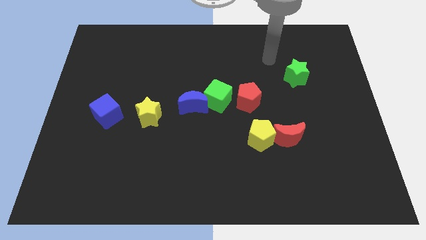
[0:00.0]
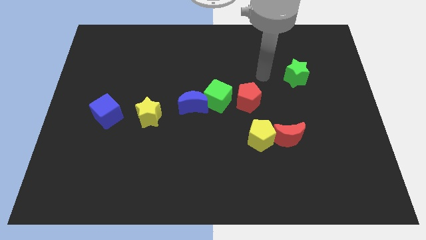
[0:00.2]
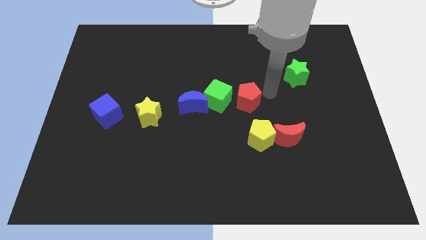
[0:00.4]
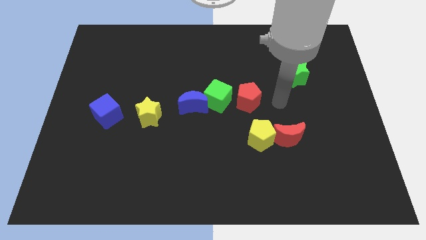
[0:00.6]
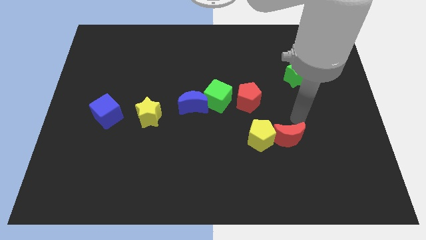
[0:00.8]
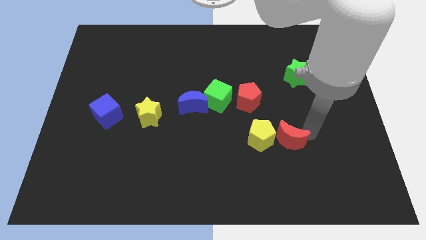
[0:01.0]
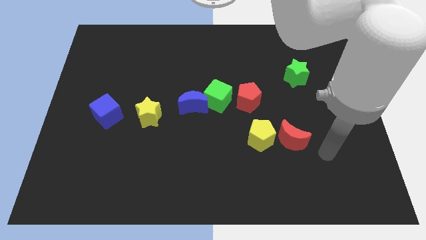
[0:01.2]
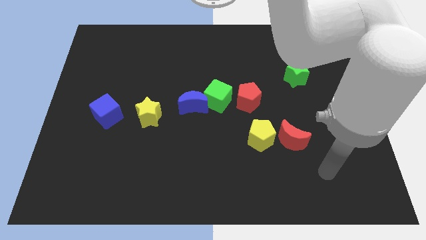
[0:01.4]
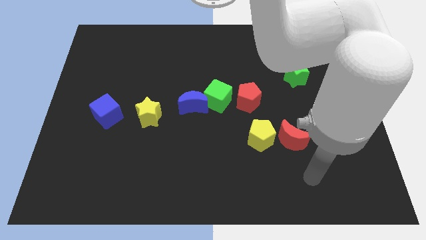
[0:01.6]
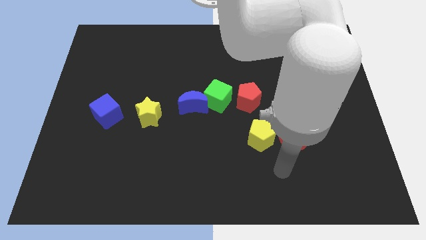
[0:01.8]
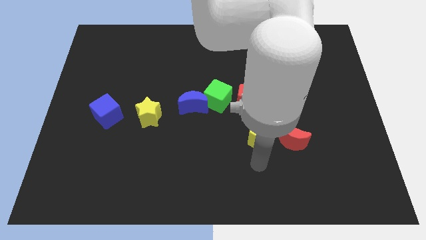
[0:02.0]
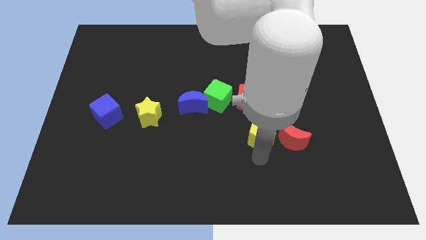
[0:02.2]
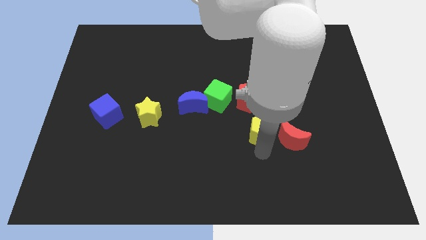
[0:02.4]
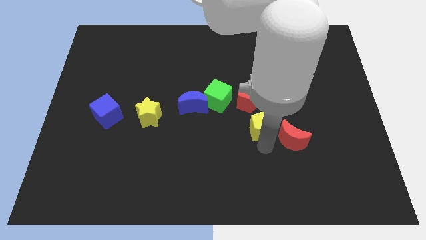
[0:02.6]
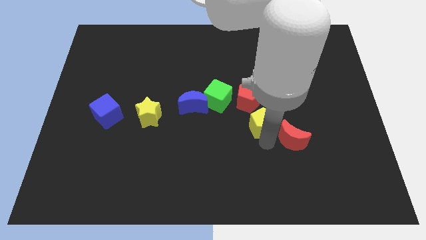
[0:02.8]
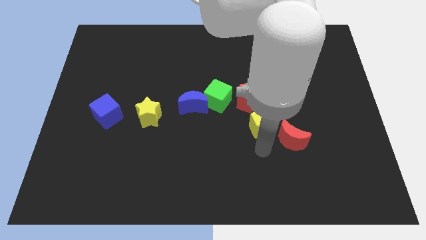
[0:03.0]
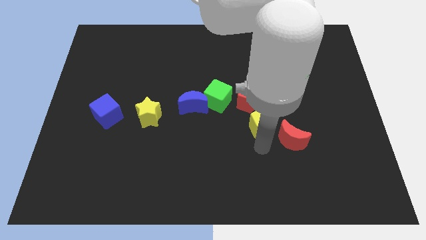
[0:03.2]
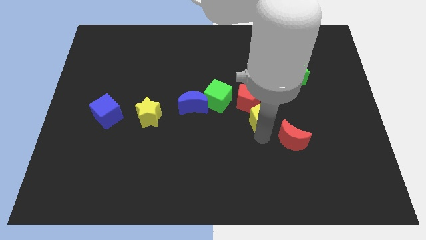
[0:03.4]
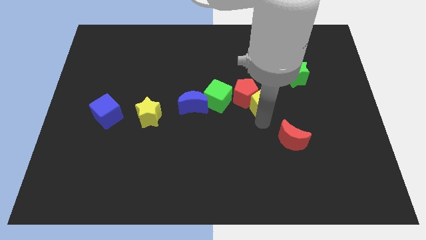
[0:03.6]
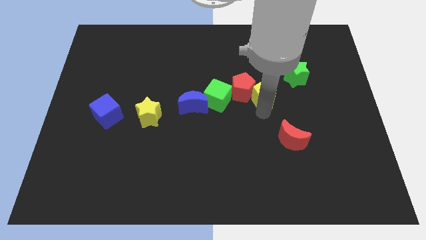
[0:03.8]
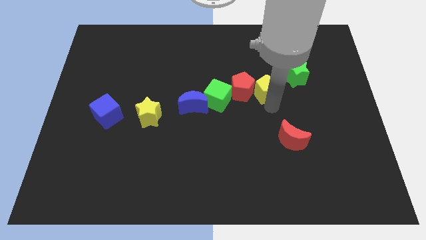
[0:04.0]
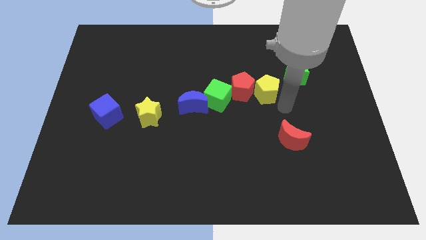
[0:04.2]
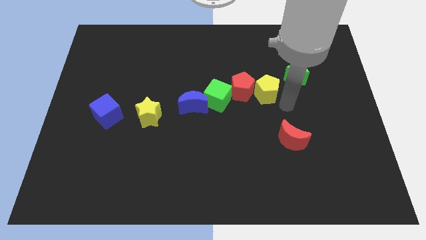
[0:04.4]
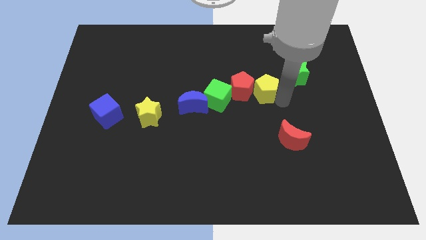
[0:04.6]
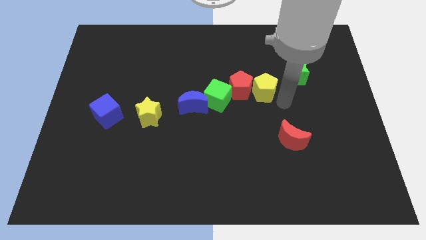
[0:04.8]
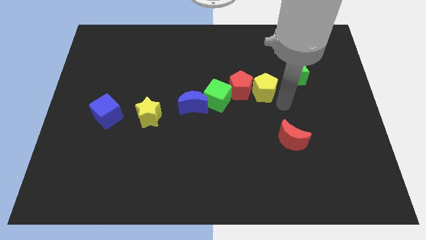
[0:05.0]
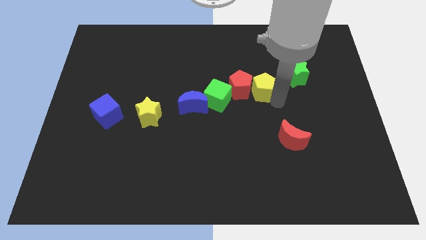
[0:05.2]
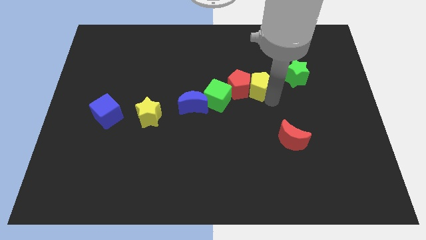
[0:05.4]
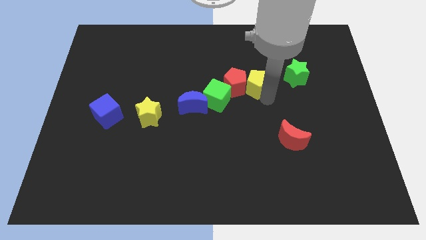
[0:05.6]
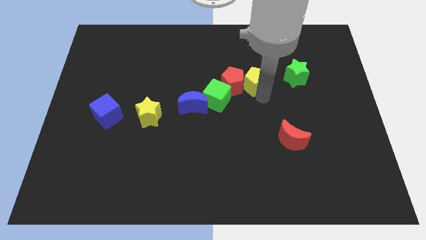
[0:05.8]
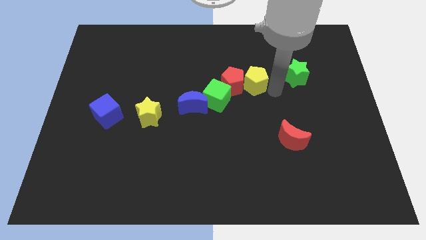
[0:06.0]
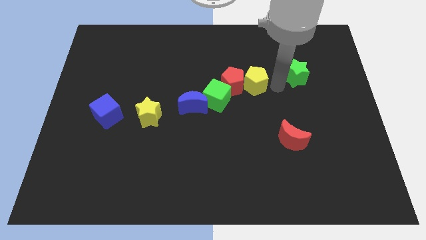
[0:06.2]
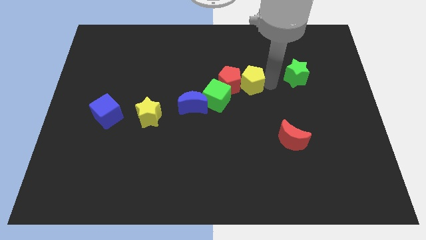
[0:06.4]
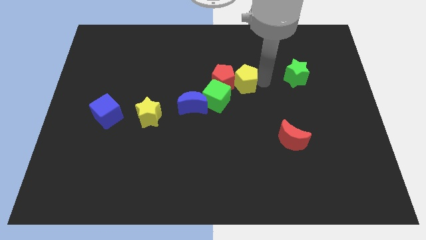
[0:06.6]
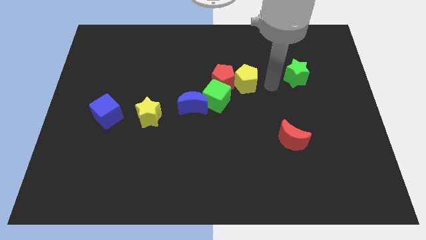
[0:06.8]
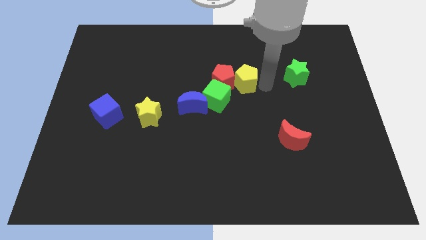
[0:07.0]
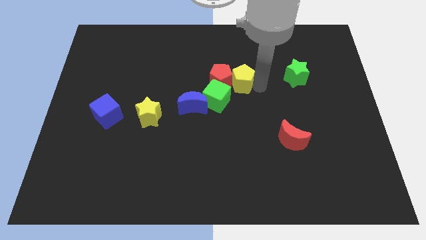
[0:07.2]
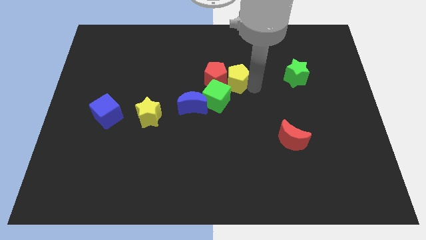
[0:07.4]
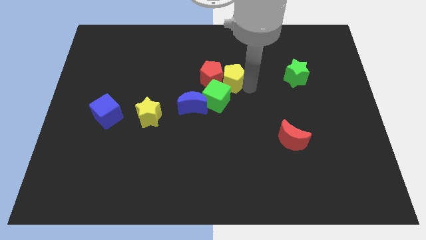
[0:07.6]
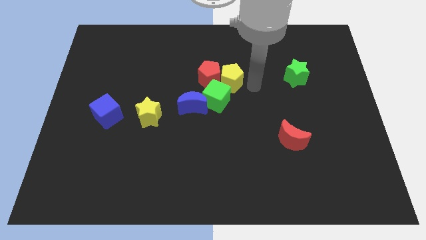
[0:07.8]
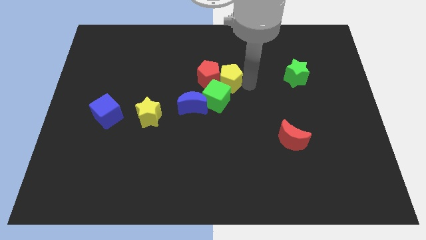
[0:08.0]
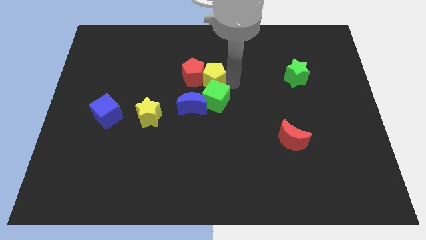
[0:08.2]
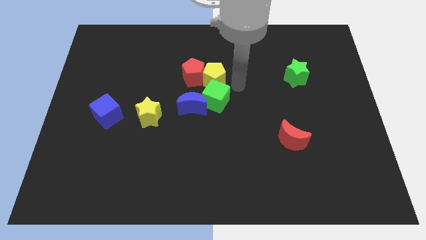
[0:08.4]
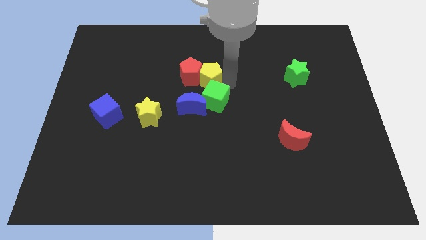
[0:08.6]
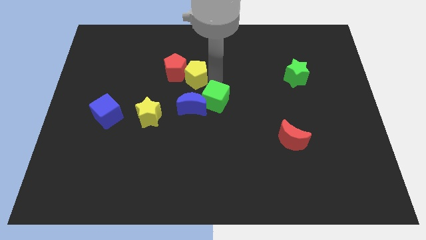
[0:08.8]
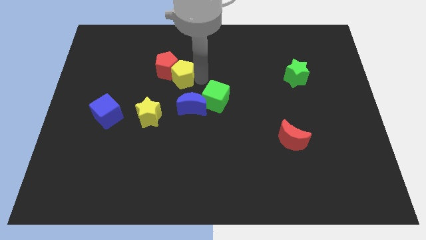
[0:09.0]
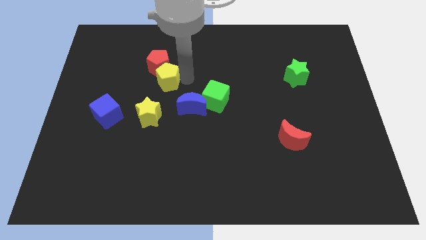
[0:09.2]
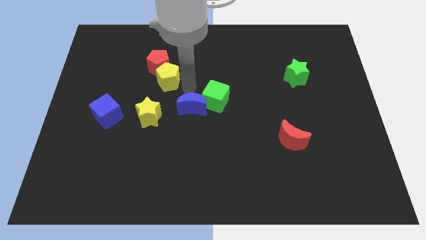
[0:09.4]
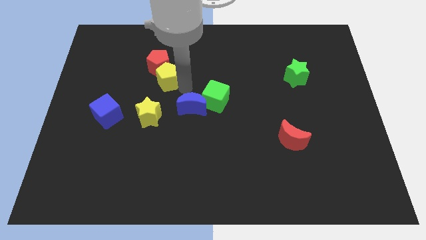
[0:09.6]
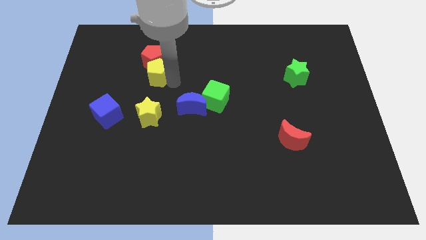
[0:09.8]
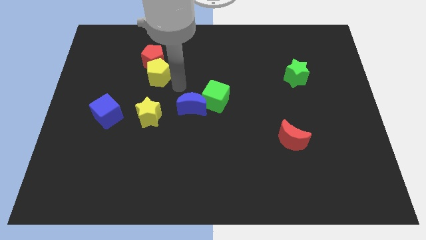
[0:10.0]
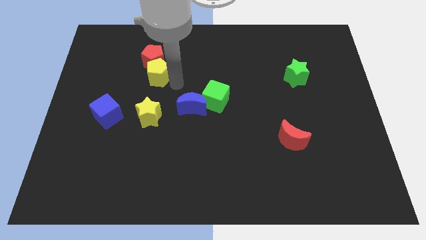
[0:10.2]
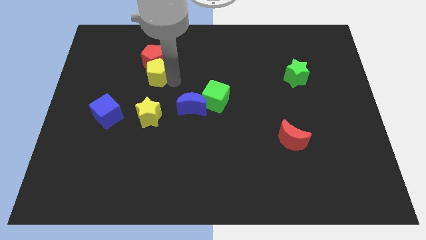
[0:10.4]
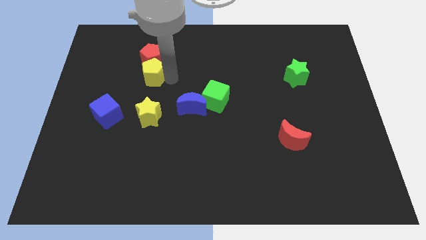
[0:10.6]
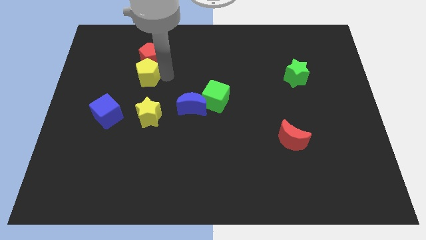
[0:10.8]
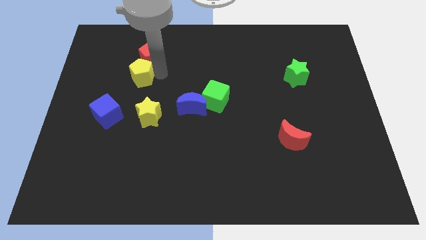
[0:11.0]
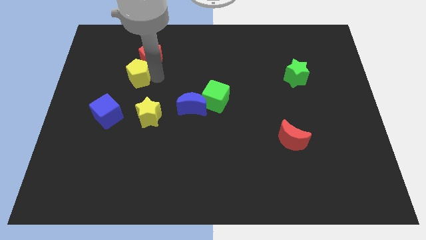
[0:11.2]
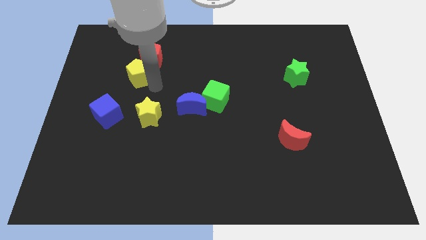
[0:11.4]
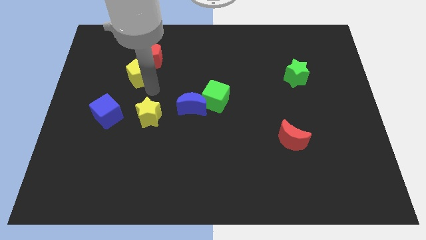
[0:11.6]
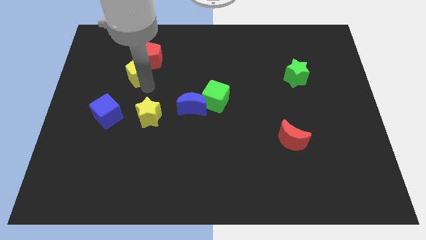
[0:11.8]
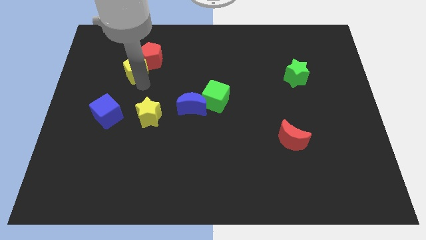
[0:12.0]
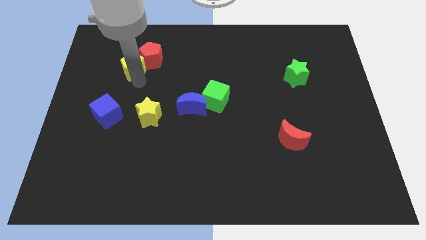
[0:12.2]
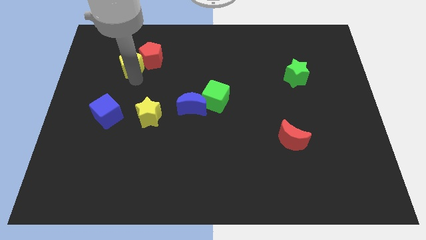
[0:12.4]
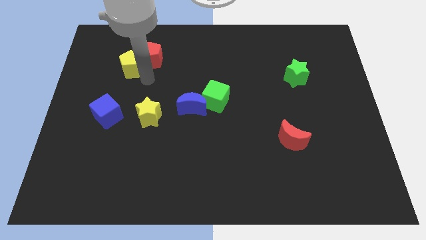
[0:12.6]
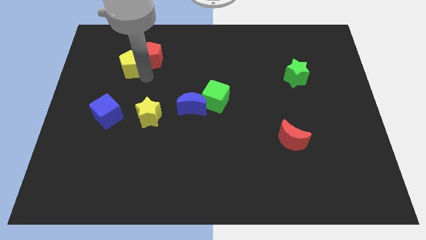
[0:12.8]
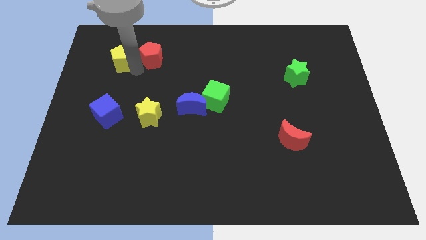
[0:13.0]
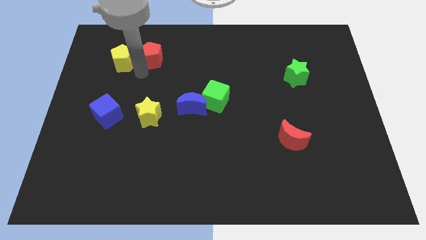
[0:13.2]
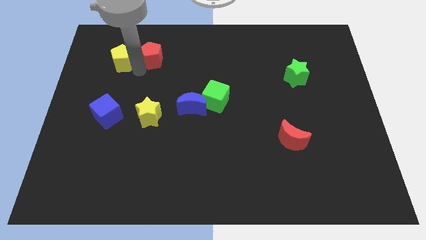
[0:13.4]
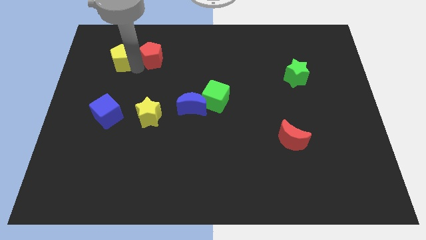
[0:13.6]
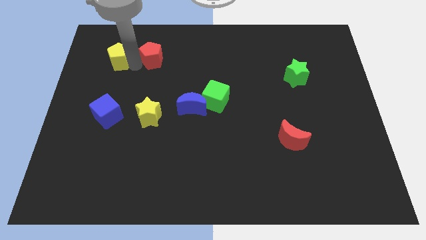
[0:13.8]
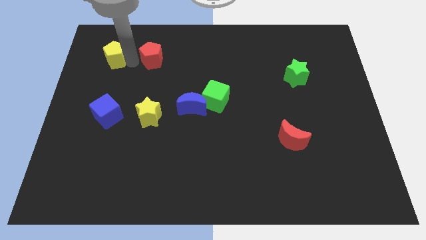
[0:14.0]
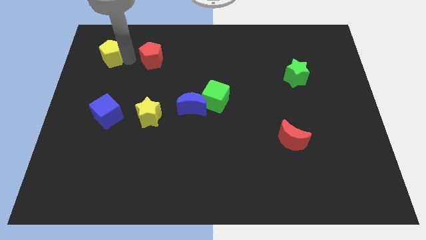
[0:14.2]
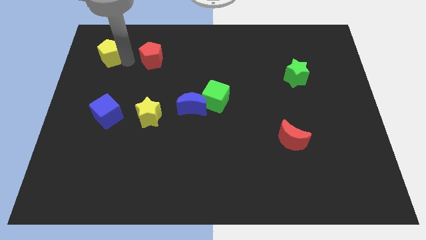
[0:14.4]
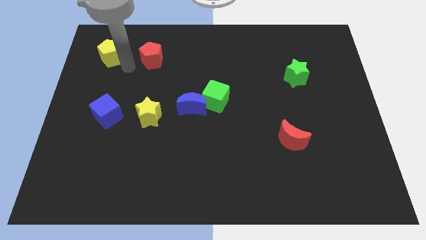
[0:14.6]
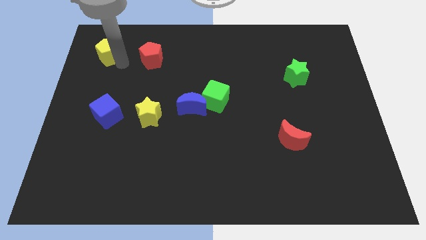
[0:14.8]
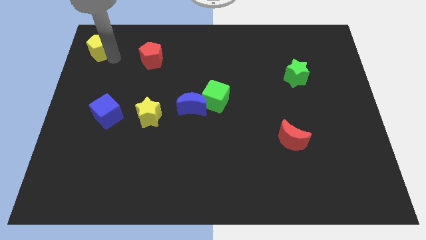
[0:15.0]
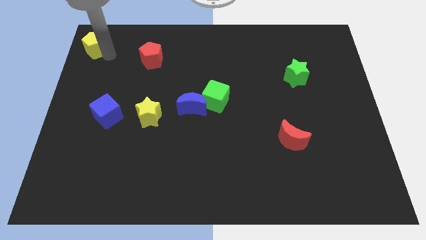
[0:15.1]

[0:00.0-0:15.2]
put the yellow pentagon to the top left corner
